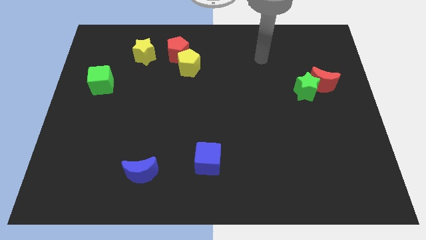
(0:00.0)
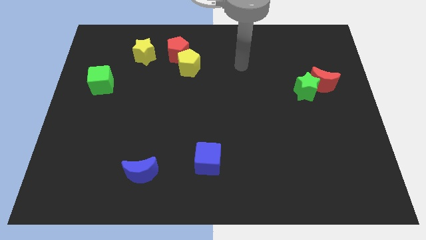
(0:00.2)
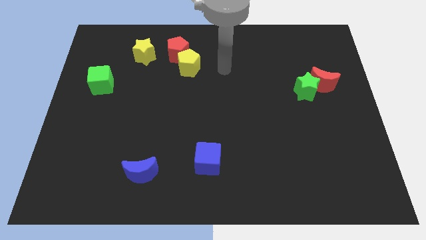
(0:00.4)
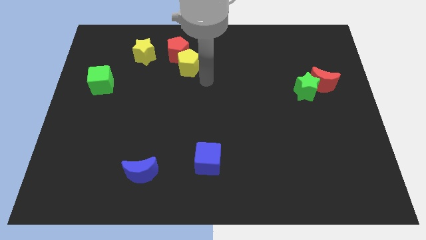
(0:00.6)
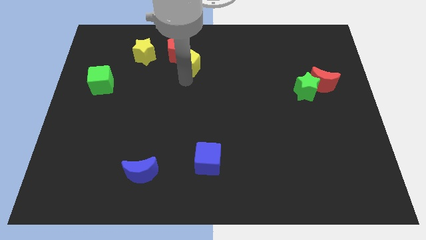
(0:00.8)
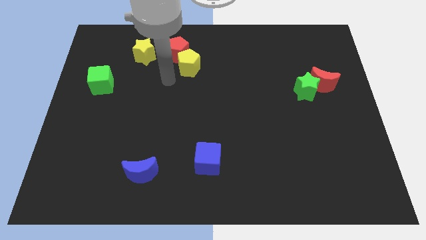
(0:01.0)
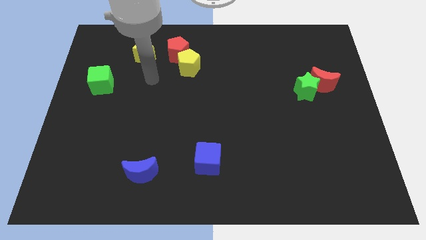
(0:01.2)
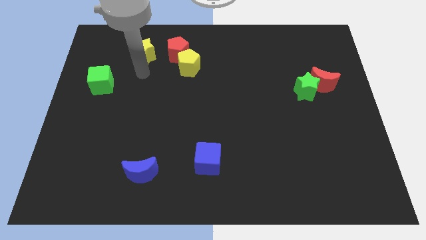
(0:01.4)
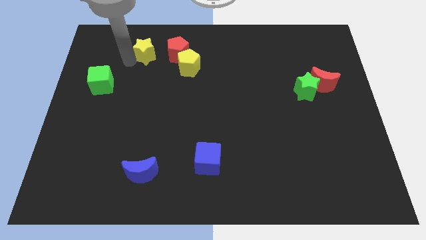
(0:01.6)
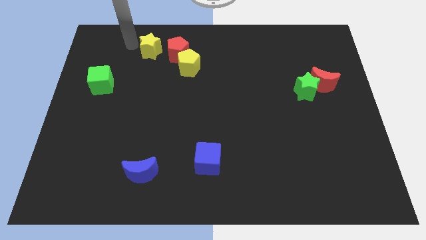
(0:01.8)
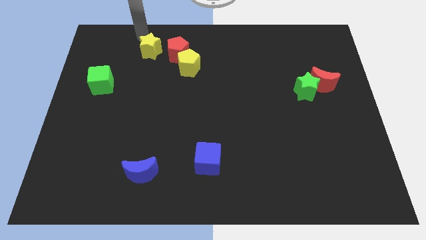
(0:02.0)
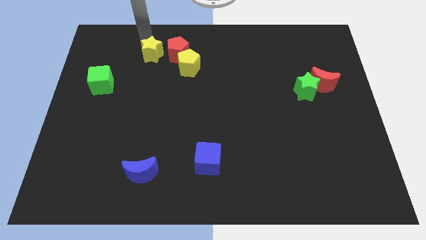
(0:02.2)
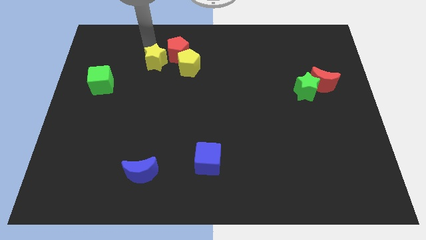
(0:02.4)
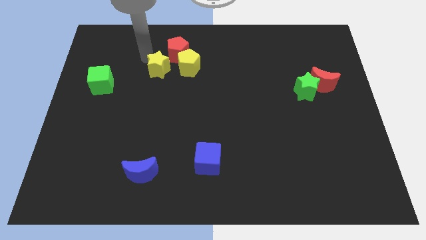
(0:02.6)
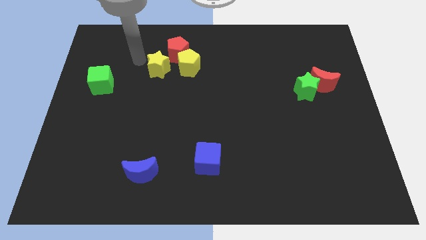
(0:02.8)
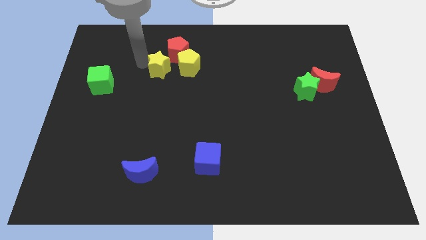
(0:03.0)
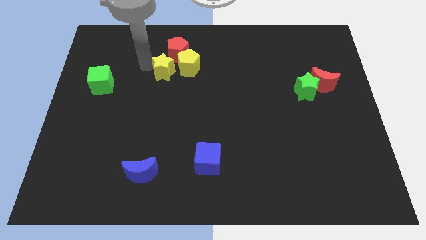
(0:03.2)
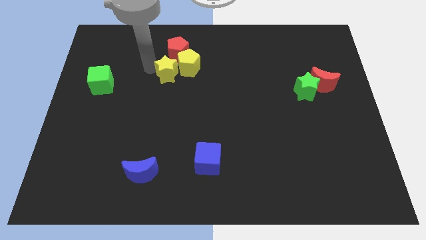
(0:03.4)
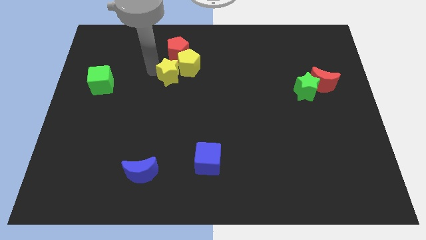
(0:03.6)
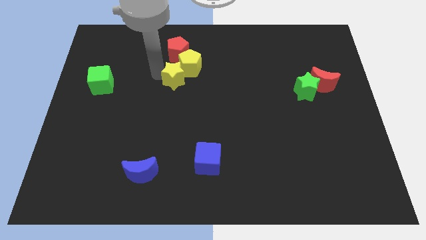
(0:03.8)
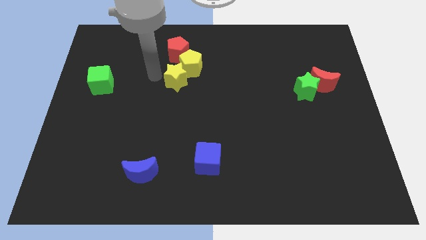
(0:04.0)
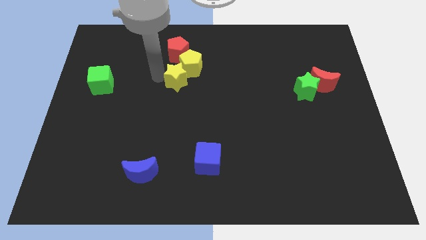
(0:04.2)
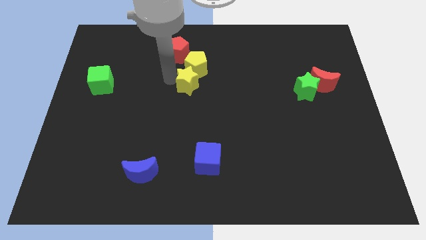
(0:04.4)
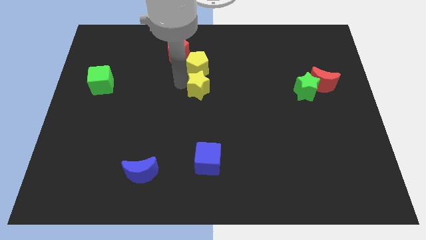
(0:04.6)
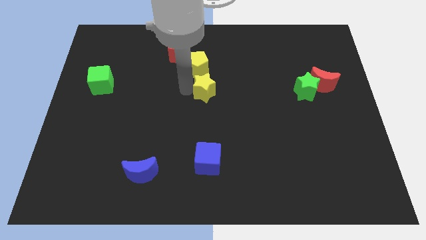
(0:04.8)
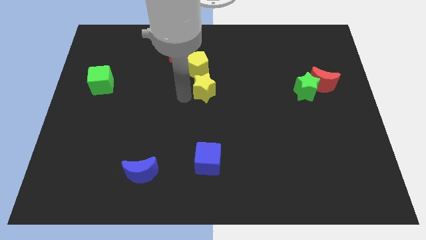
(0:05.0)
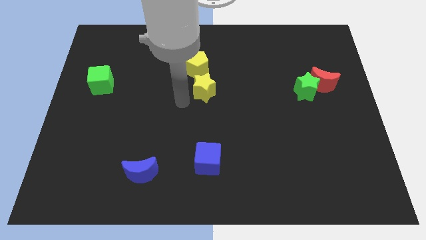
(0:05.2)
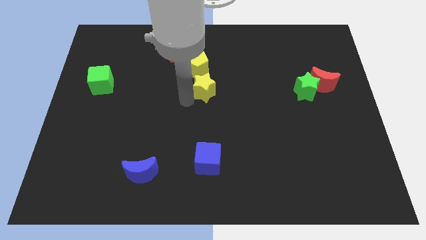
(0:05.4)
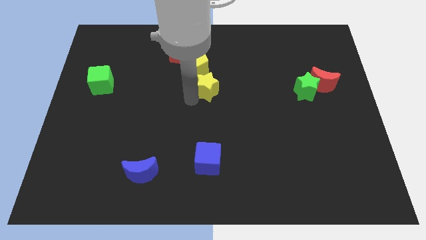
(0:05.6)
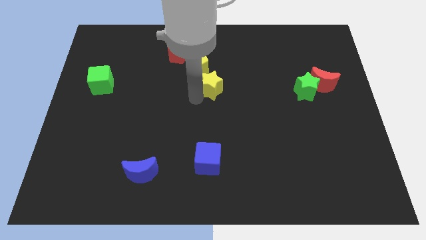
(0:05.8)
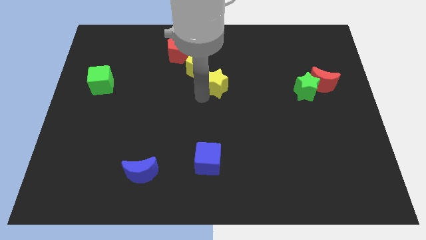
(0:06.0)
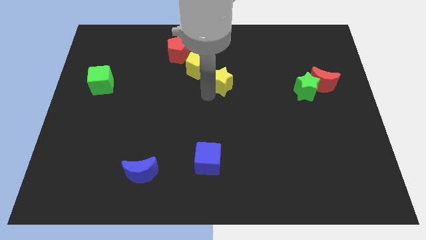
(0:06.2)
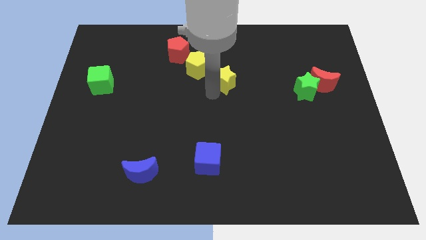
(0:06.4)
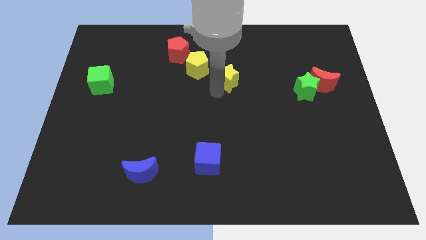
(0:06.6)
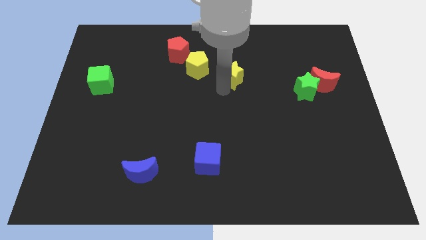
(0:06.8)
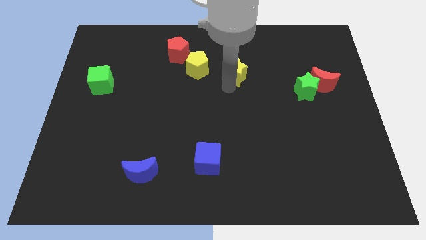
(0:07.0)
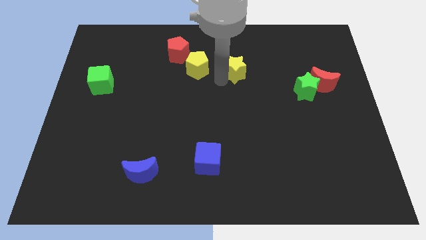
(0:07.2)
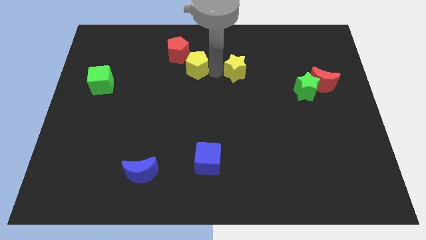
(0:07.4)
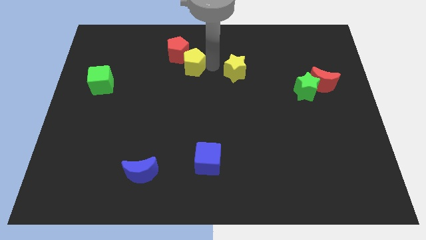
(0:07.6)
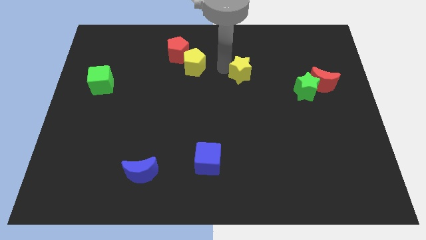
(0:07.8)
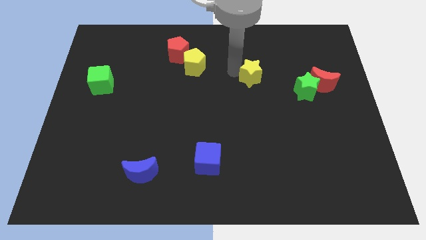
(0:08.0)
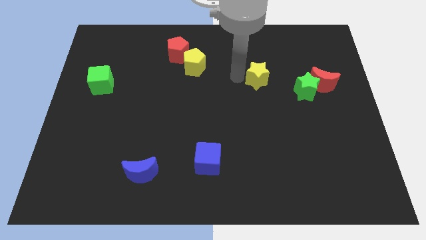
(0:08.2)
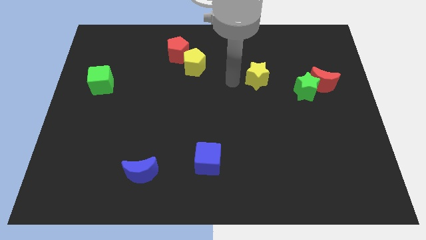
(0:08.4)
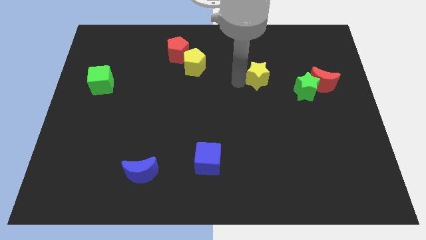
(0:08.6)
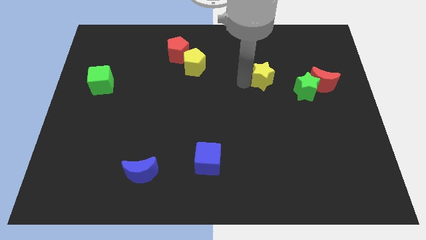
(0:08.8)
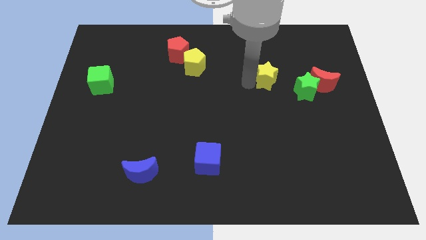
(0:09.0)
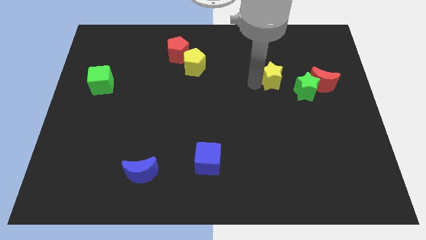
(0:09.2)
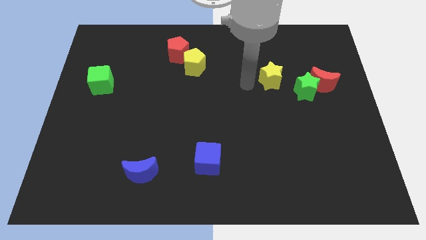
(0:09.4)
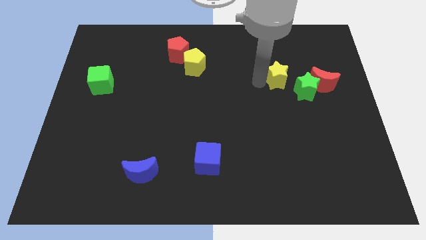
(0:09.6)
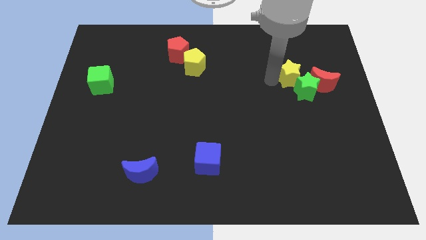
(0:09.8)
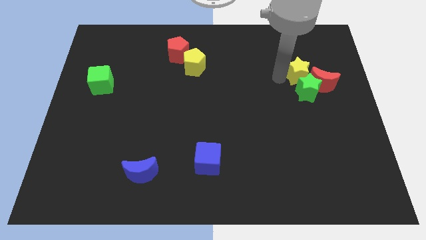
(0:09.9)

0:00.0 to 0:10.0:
put the yellow star towards the red moon

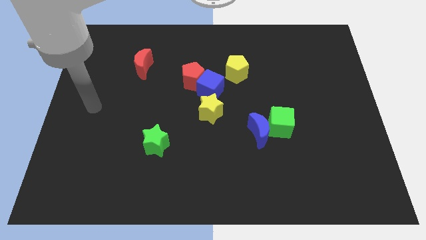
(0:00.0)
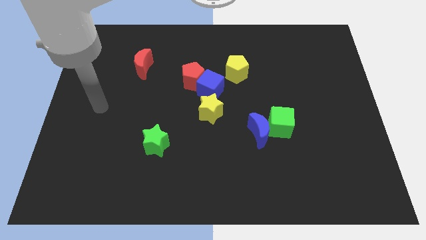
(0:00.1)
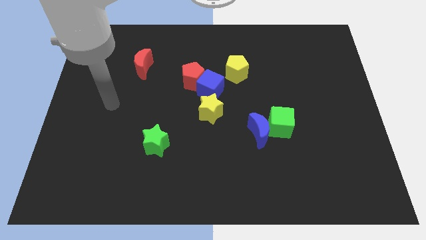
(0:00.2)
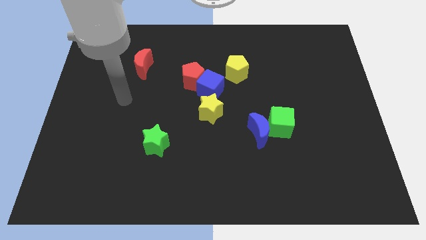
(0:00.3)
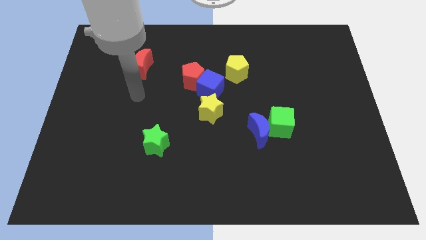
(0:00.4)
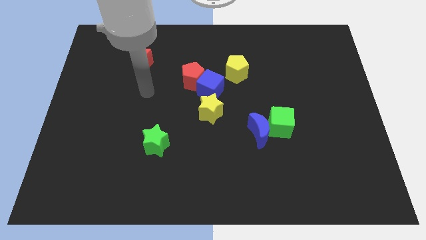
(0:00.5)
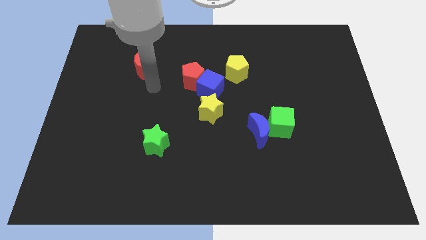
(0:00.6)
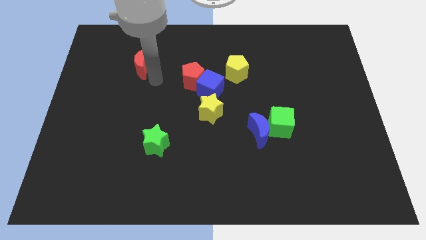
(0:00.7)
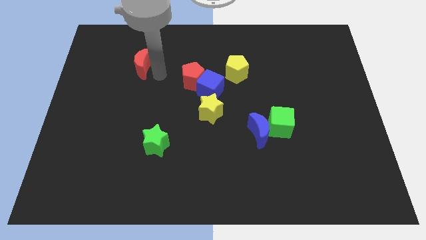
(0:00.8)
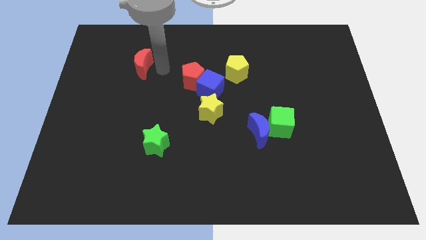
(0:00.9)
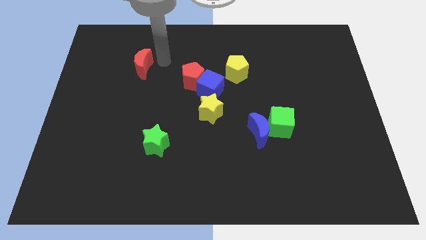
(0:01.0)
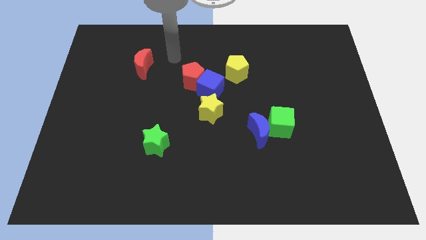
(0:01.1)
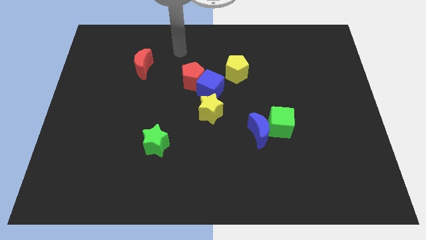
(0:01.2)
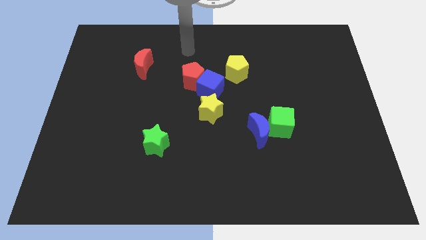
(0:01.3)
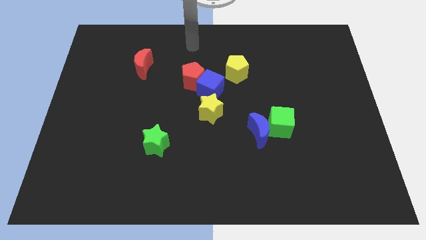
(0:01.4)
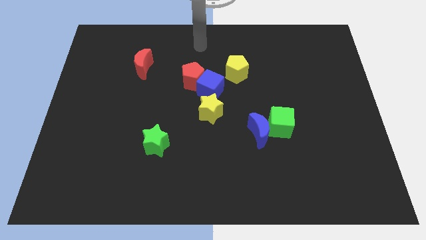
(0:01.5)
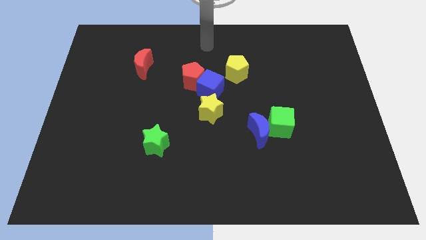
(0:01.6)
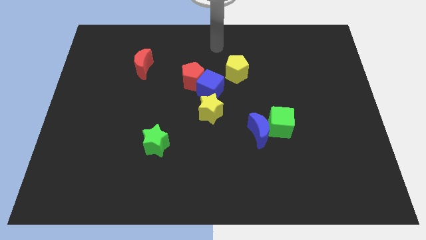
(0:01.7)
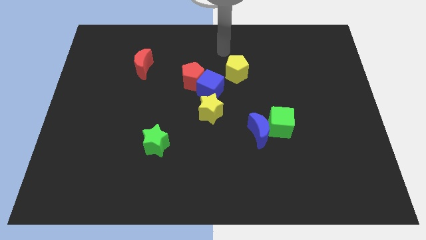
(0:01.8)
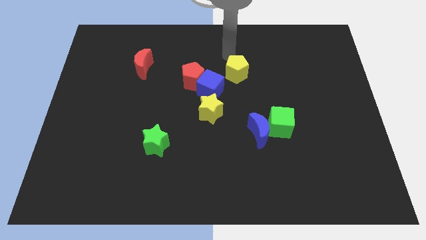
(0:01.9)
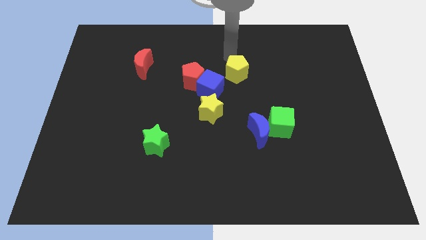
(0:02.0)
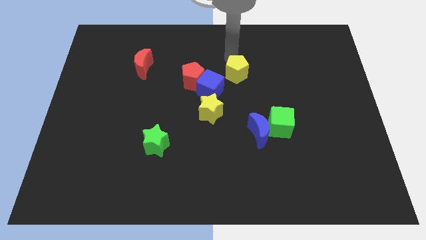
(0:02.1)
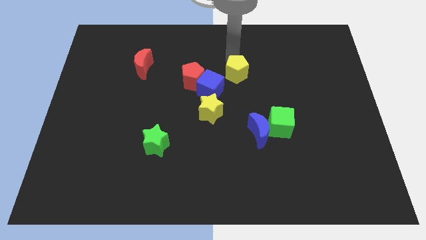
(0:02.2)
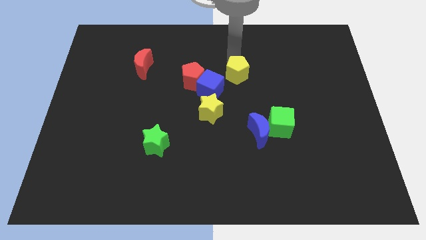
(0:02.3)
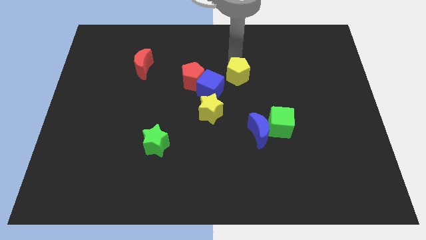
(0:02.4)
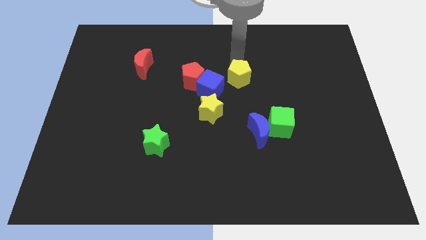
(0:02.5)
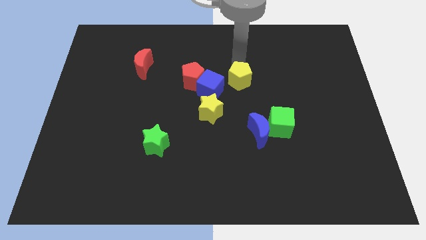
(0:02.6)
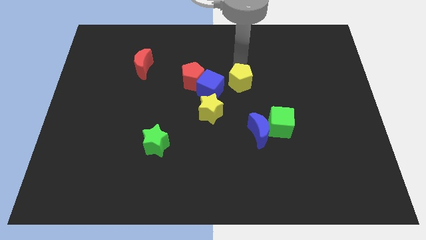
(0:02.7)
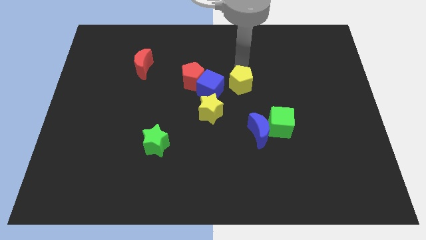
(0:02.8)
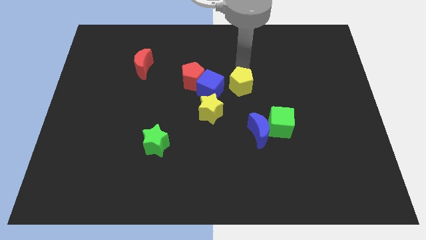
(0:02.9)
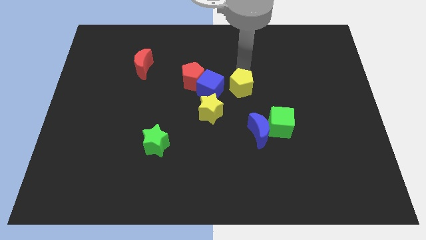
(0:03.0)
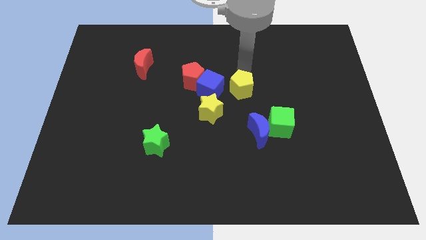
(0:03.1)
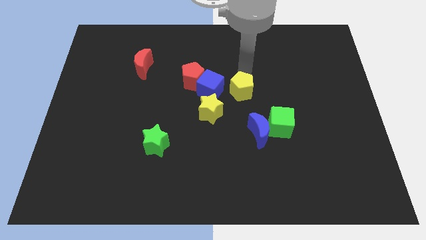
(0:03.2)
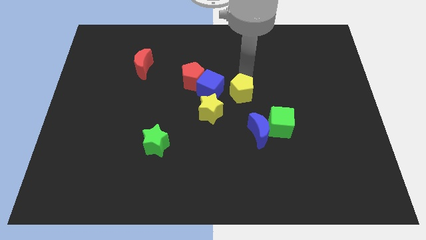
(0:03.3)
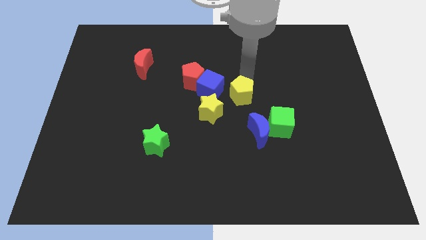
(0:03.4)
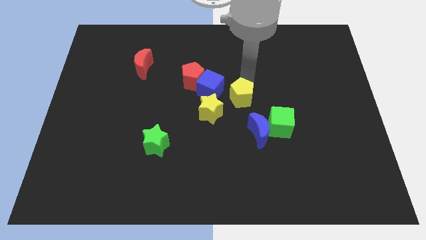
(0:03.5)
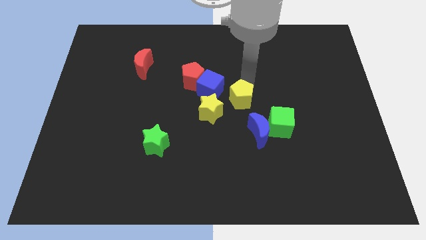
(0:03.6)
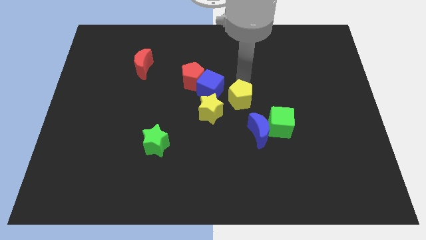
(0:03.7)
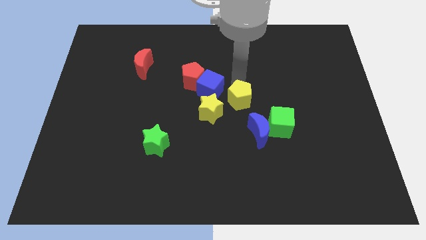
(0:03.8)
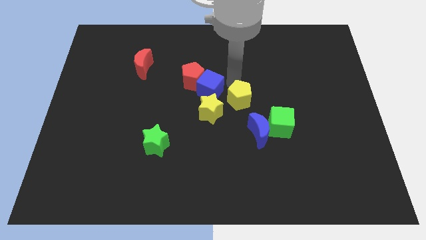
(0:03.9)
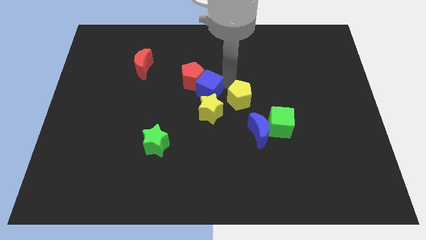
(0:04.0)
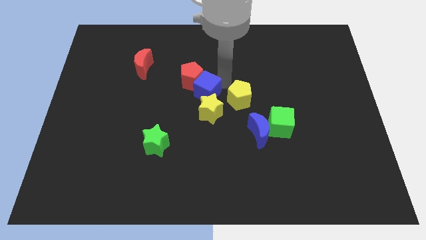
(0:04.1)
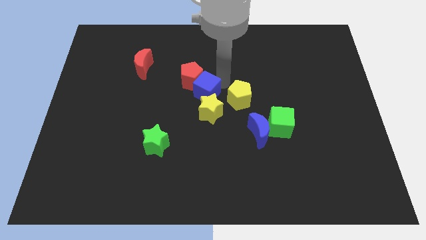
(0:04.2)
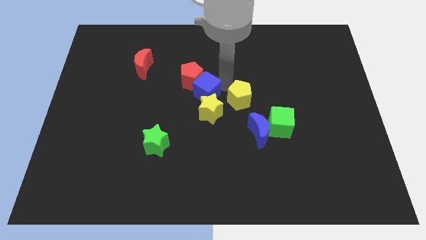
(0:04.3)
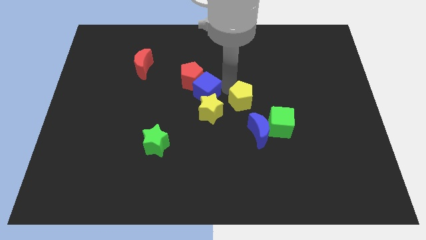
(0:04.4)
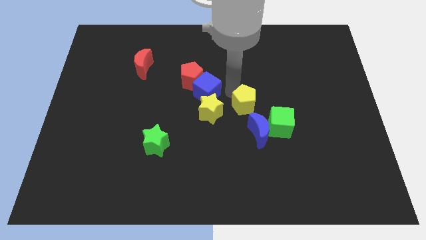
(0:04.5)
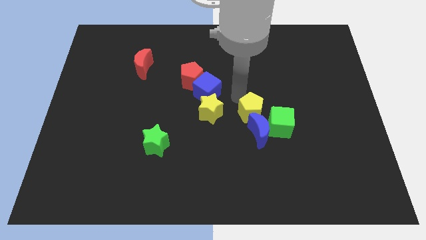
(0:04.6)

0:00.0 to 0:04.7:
move the yellow pentagon towards the blue moon
